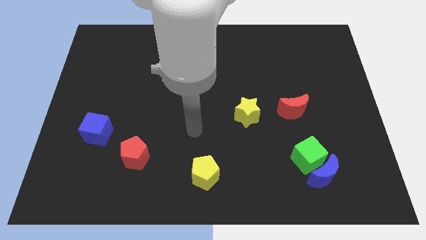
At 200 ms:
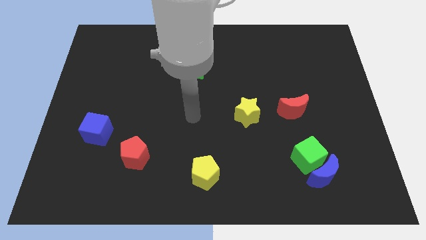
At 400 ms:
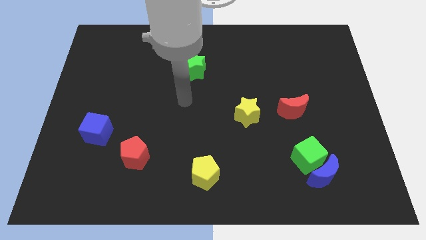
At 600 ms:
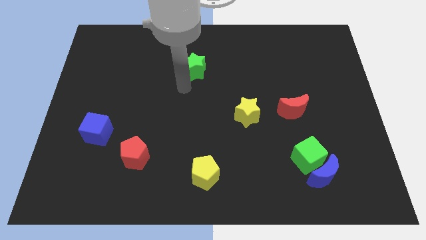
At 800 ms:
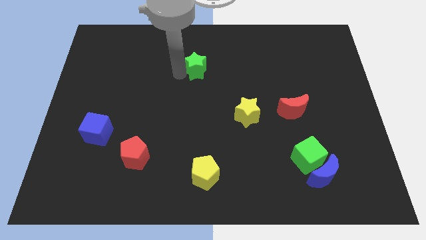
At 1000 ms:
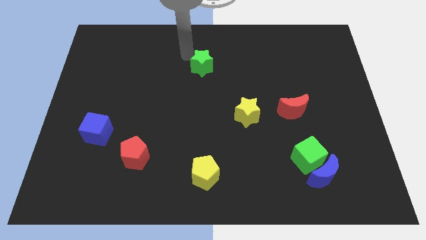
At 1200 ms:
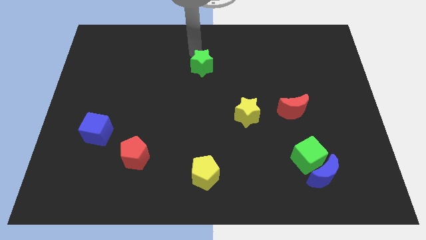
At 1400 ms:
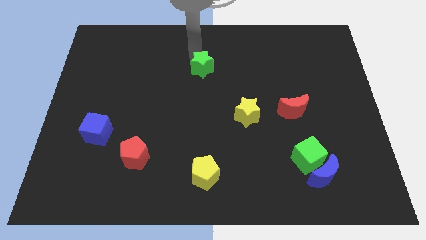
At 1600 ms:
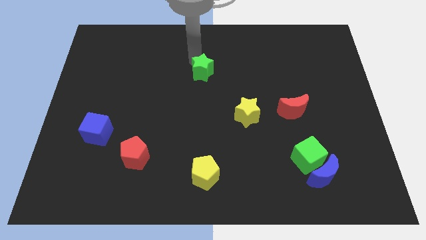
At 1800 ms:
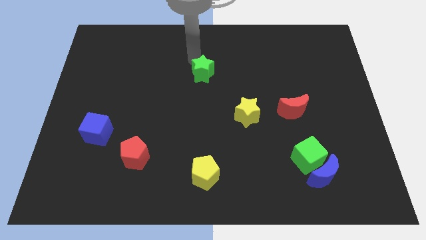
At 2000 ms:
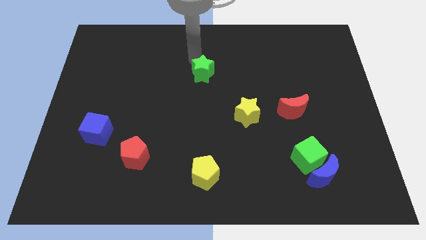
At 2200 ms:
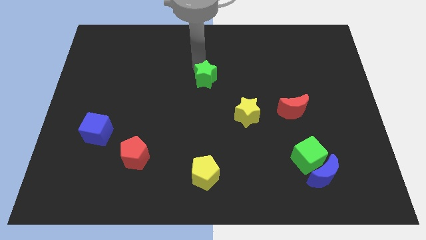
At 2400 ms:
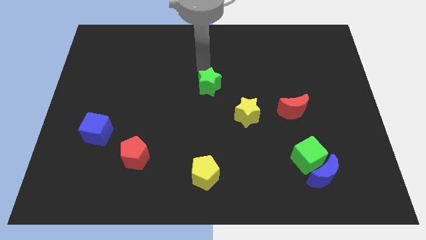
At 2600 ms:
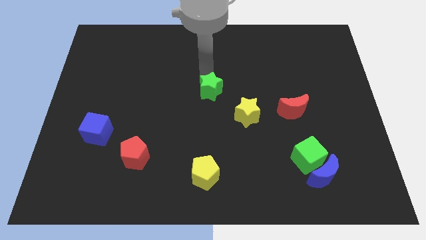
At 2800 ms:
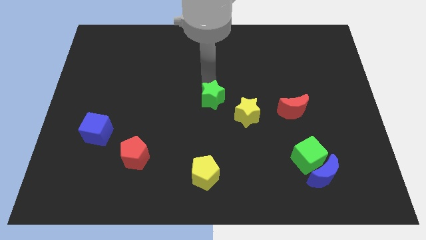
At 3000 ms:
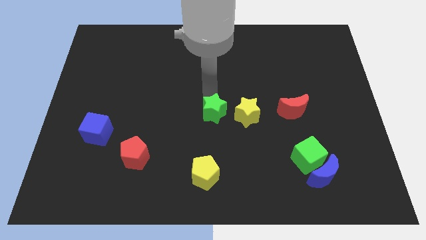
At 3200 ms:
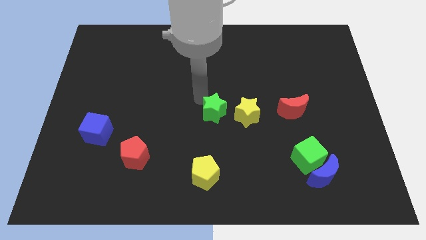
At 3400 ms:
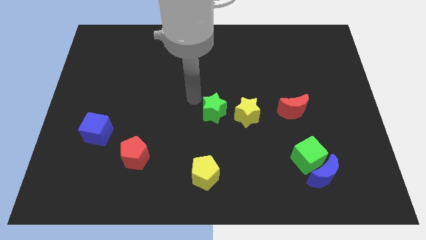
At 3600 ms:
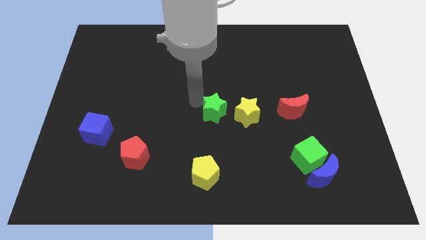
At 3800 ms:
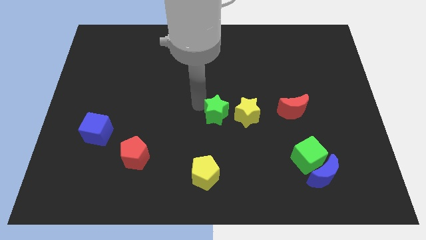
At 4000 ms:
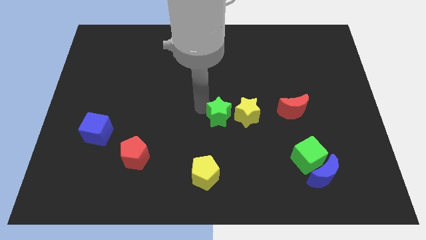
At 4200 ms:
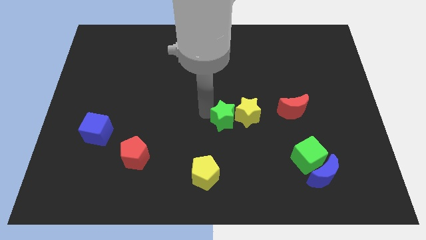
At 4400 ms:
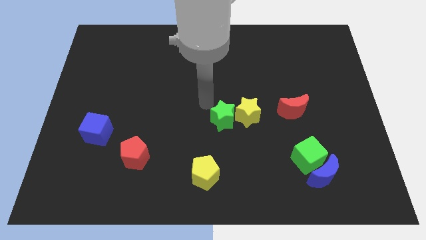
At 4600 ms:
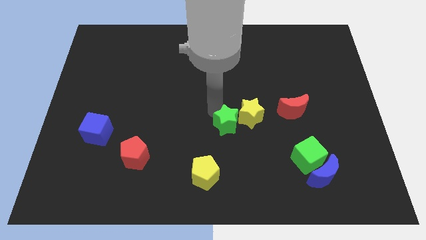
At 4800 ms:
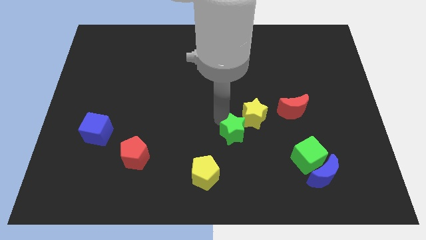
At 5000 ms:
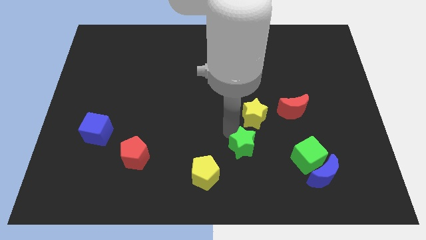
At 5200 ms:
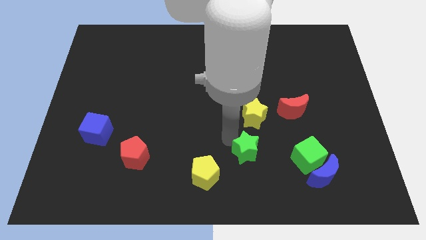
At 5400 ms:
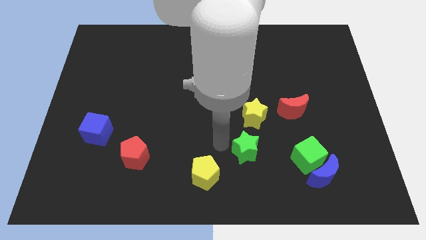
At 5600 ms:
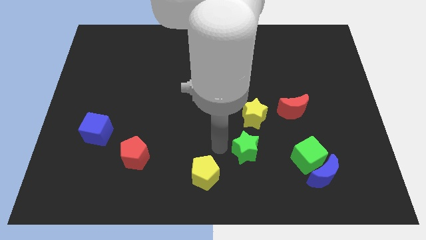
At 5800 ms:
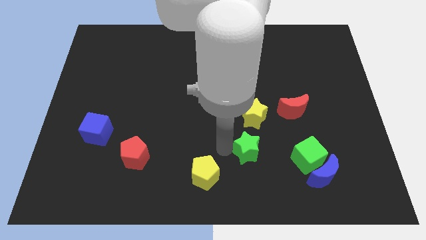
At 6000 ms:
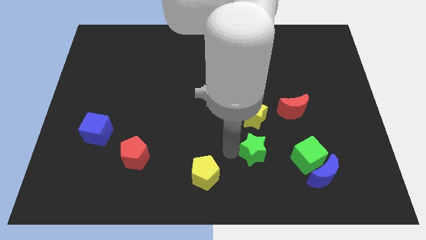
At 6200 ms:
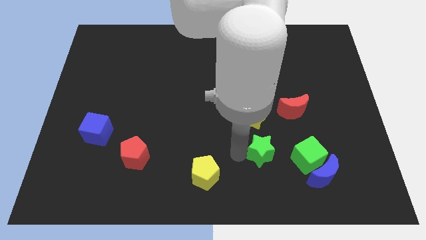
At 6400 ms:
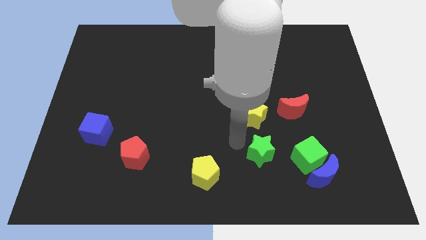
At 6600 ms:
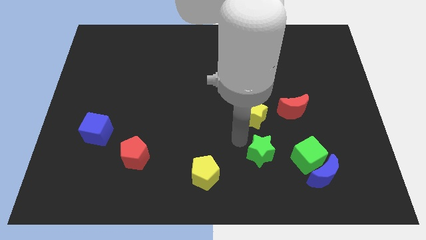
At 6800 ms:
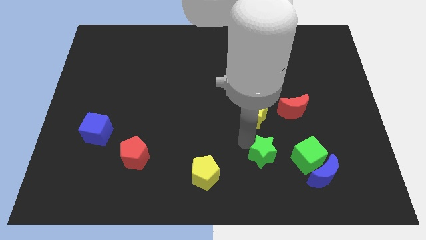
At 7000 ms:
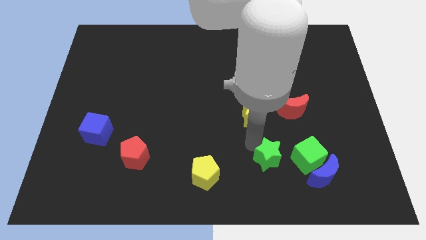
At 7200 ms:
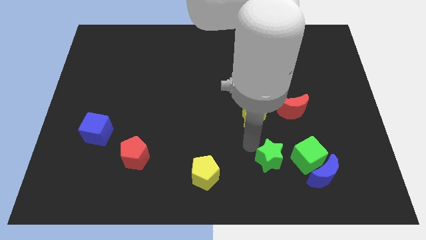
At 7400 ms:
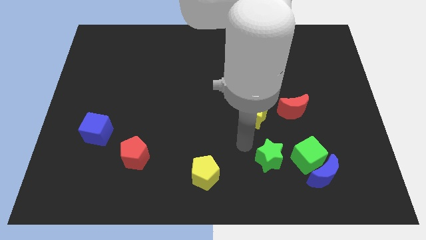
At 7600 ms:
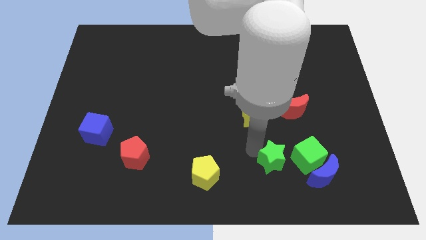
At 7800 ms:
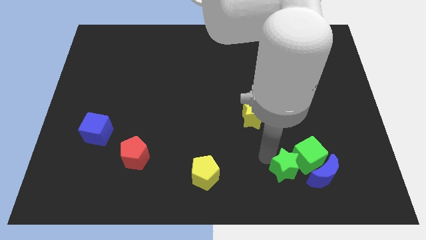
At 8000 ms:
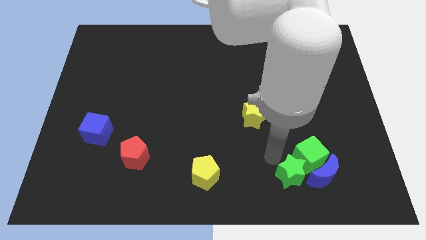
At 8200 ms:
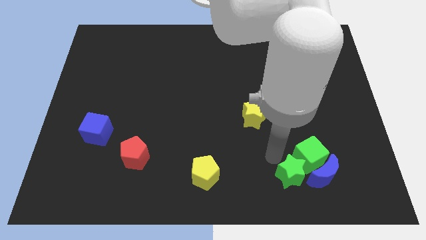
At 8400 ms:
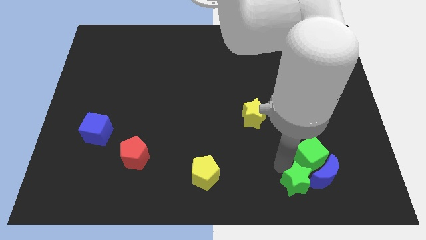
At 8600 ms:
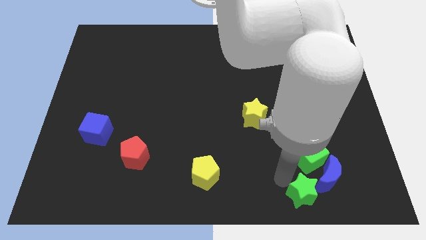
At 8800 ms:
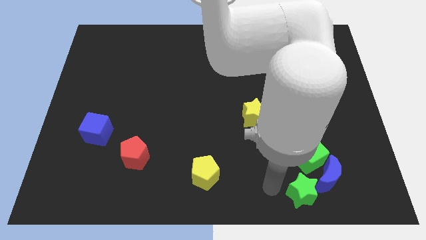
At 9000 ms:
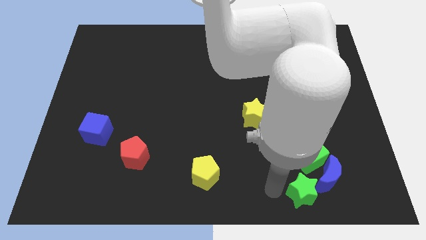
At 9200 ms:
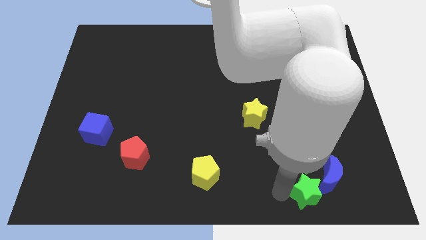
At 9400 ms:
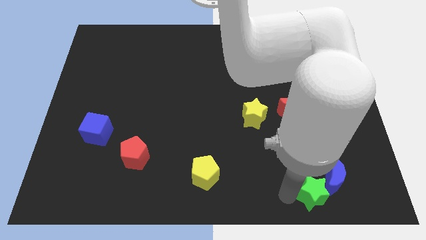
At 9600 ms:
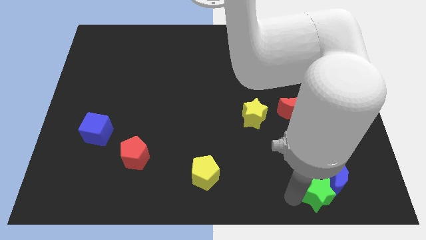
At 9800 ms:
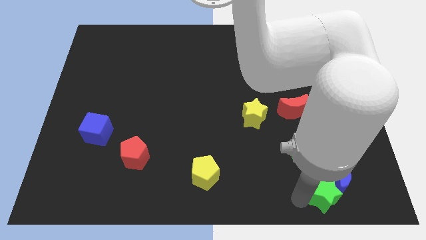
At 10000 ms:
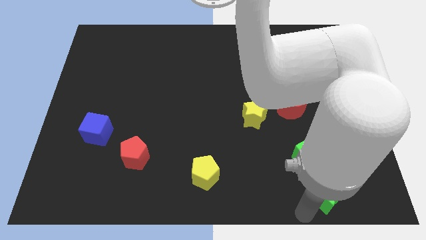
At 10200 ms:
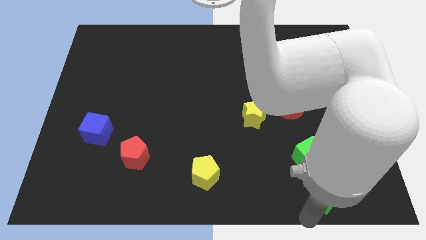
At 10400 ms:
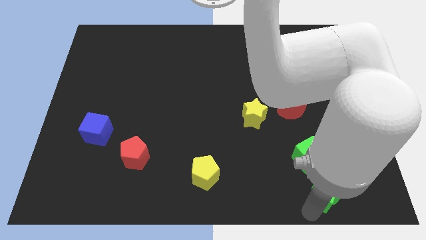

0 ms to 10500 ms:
put the green star to the bottom right side of the green cube

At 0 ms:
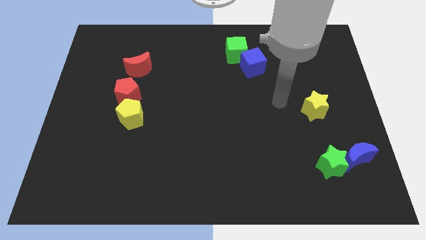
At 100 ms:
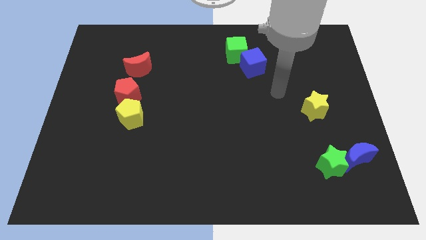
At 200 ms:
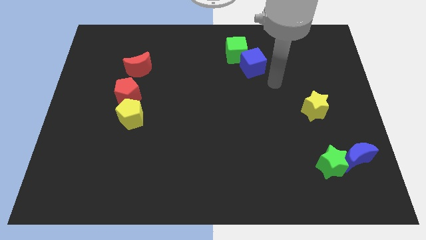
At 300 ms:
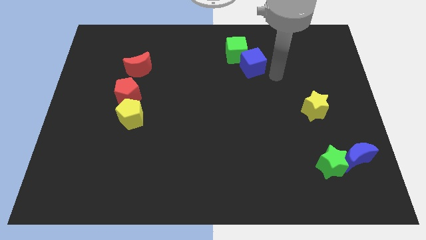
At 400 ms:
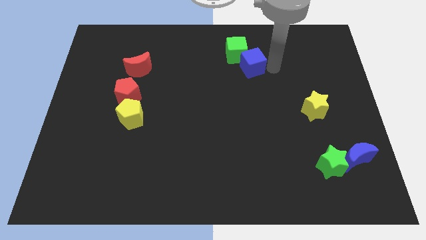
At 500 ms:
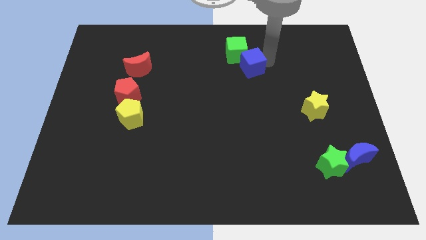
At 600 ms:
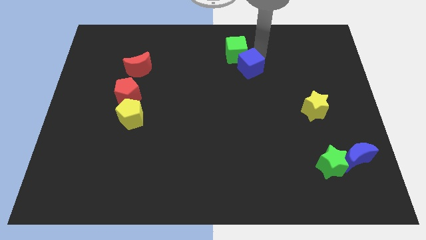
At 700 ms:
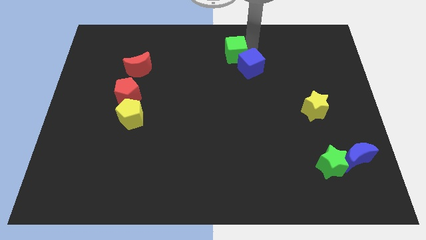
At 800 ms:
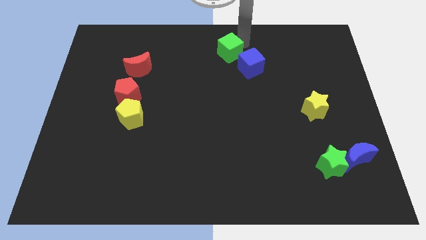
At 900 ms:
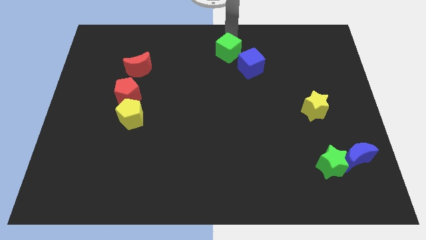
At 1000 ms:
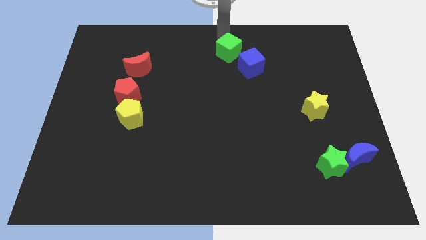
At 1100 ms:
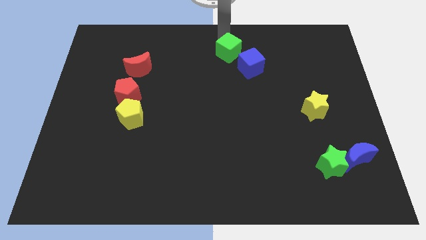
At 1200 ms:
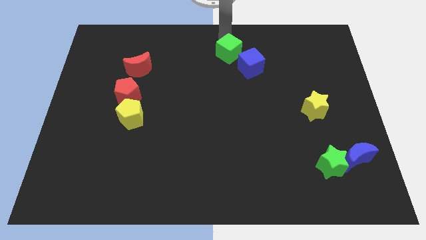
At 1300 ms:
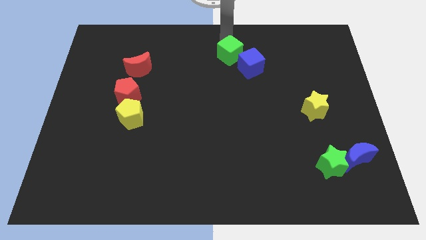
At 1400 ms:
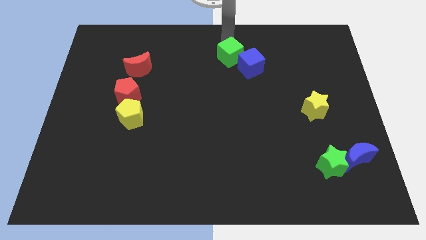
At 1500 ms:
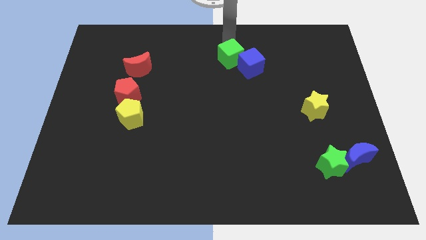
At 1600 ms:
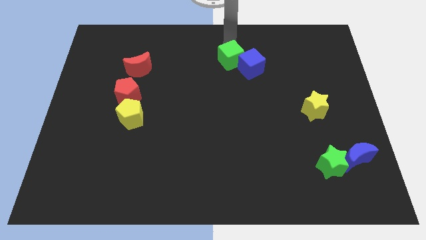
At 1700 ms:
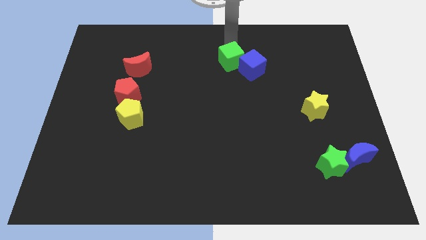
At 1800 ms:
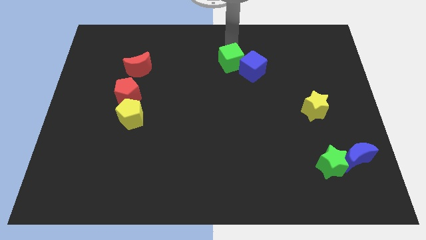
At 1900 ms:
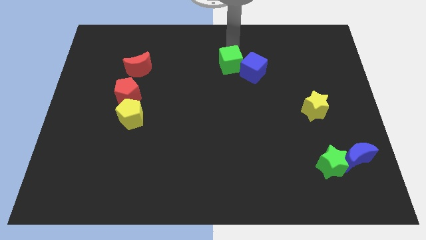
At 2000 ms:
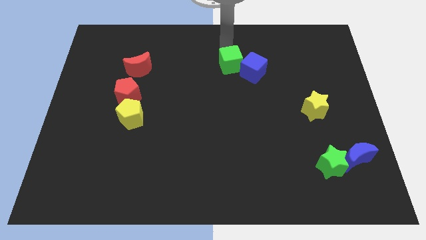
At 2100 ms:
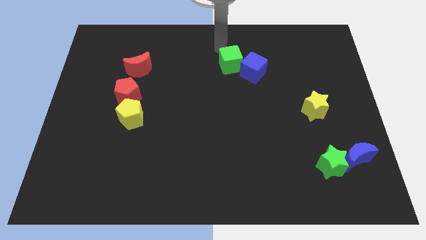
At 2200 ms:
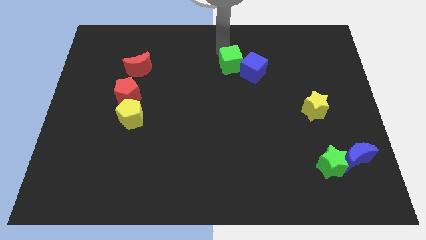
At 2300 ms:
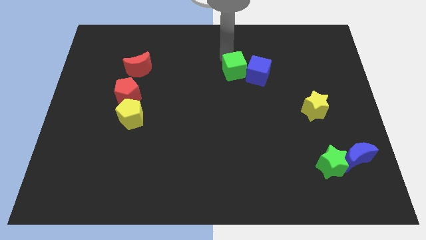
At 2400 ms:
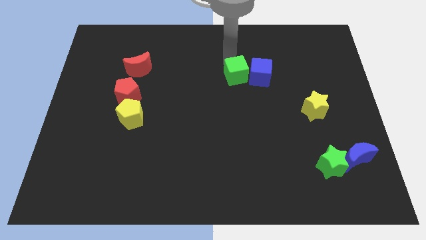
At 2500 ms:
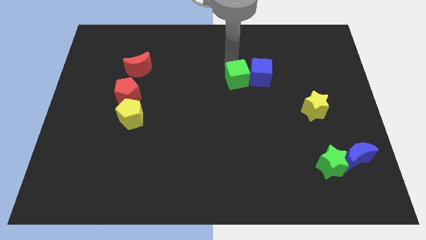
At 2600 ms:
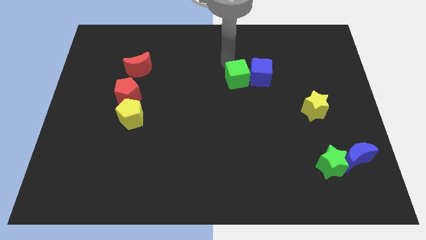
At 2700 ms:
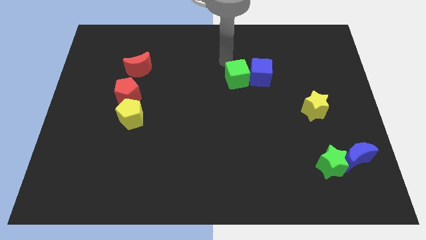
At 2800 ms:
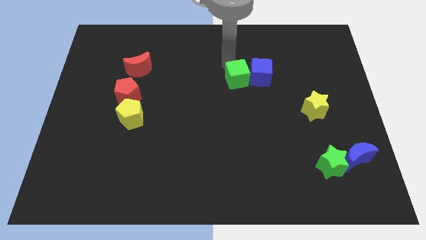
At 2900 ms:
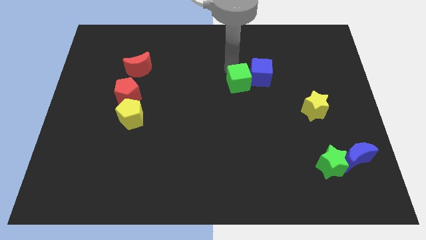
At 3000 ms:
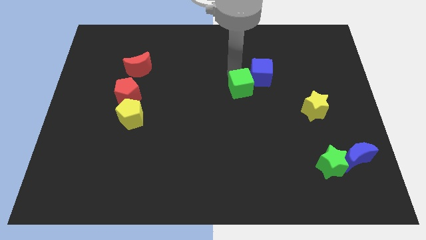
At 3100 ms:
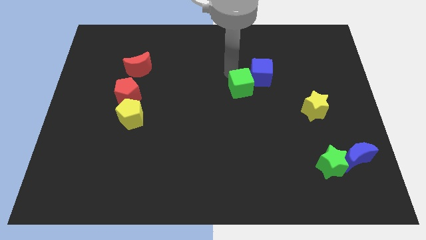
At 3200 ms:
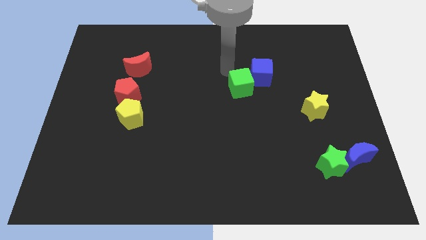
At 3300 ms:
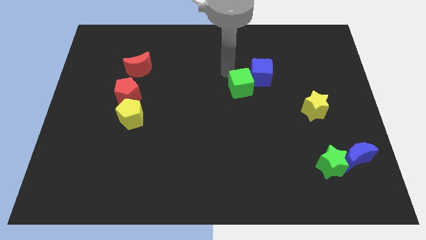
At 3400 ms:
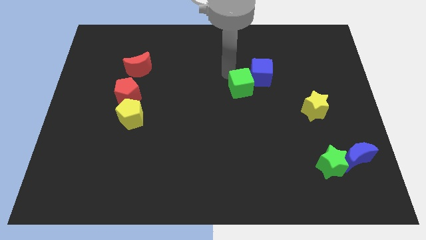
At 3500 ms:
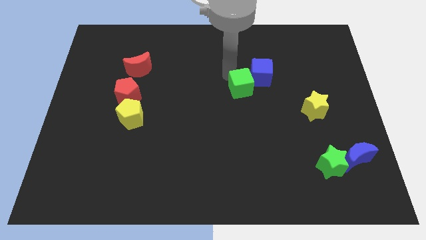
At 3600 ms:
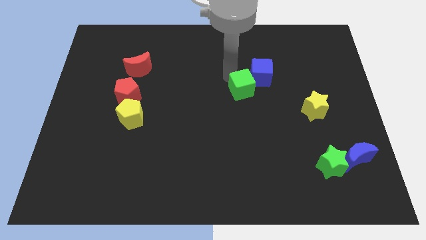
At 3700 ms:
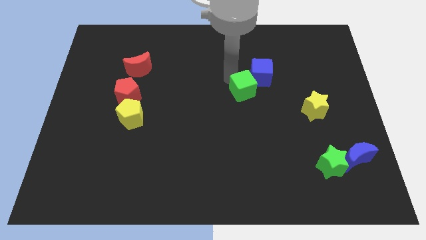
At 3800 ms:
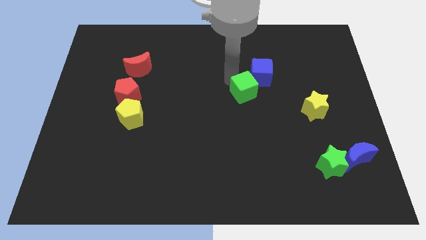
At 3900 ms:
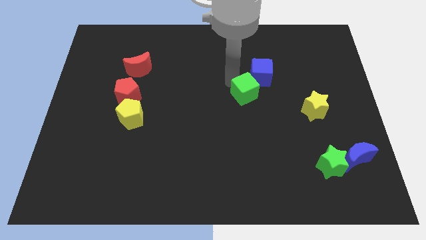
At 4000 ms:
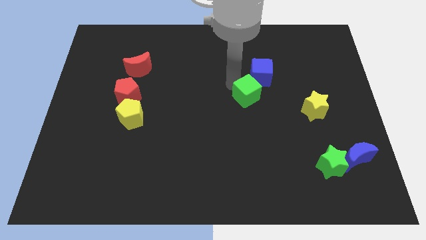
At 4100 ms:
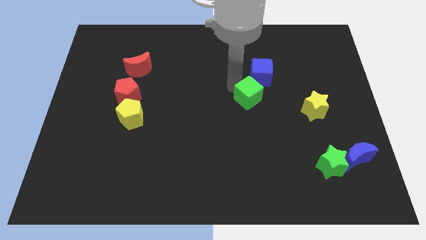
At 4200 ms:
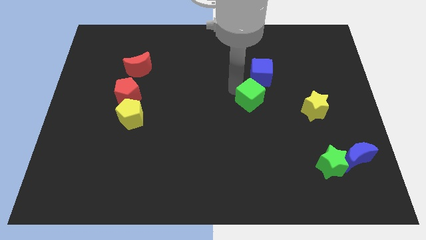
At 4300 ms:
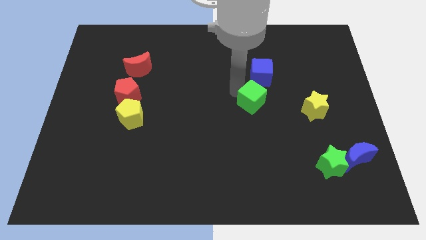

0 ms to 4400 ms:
move the green cube to the left of the yellow star
